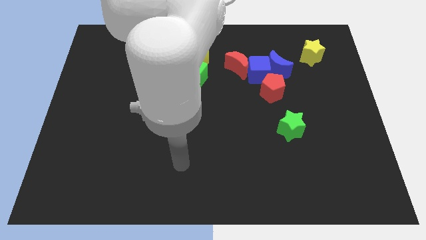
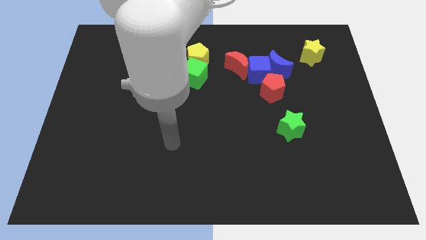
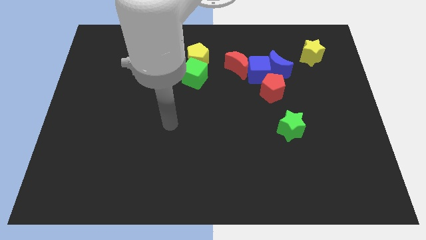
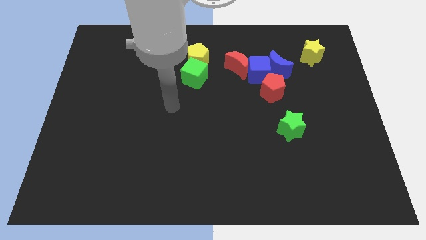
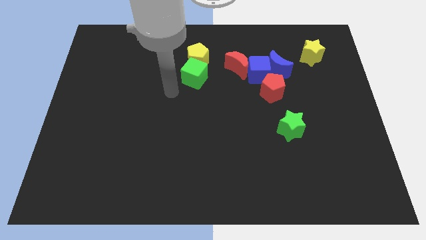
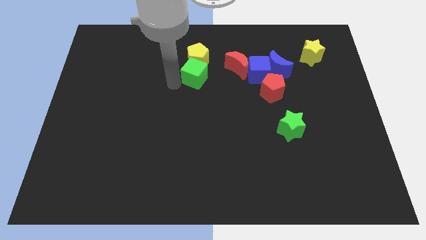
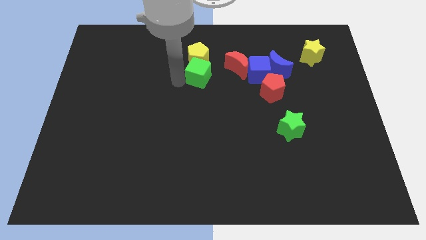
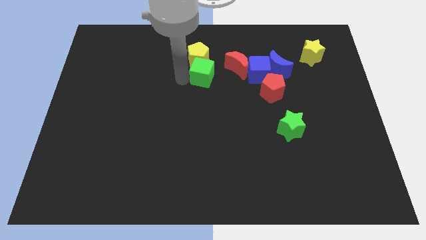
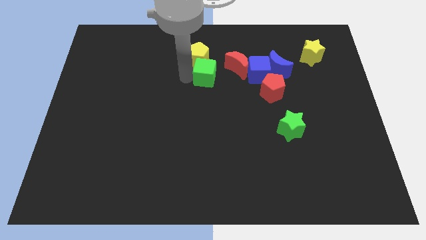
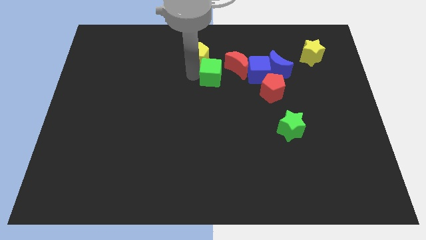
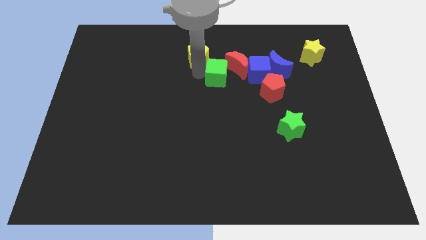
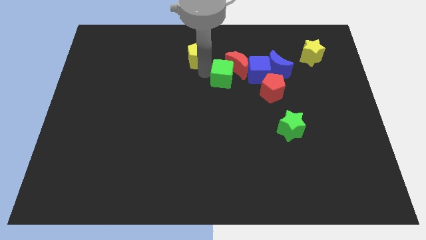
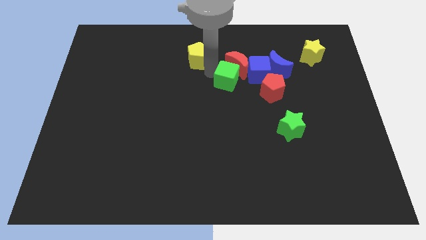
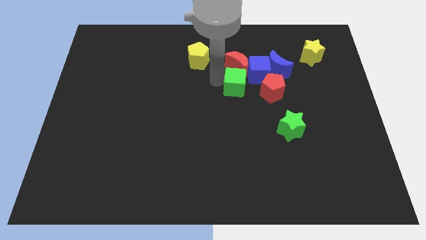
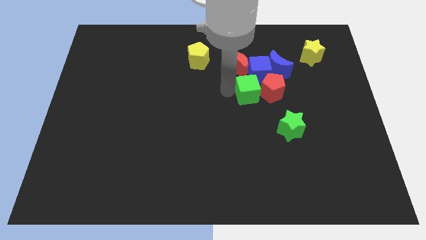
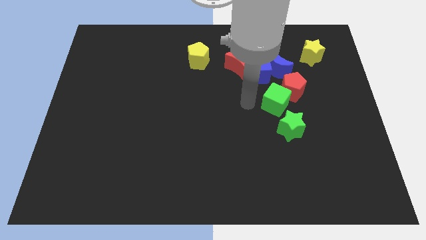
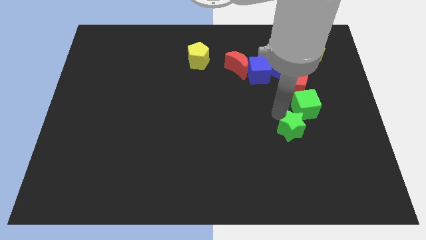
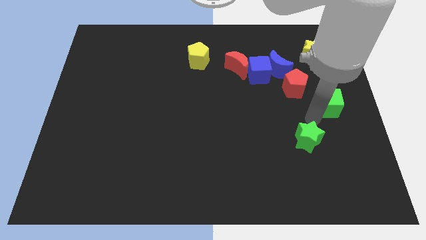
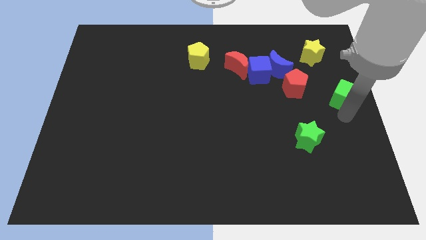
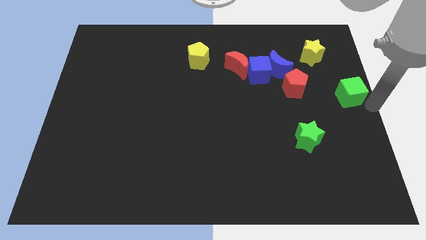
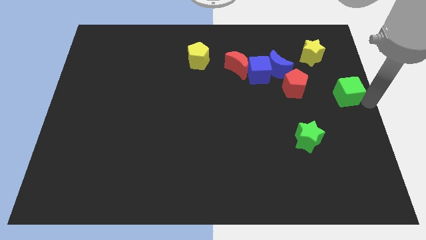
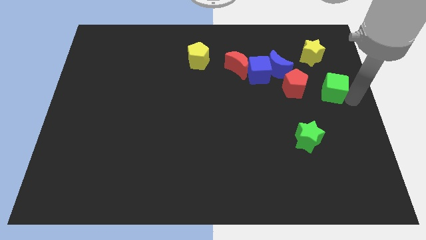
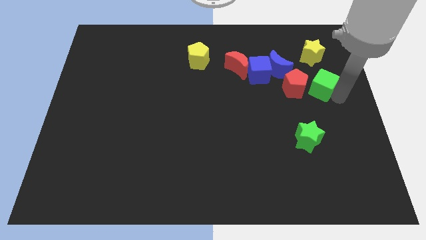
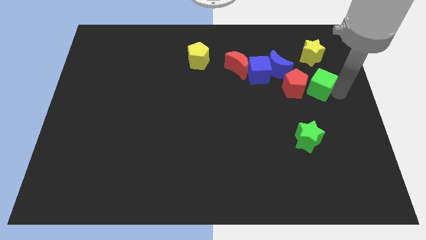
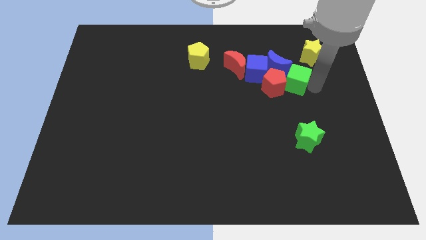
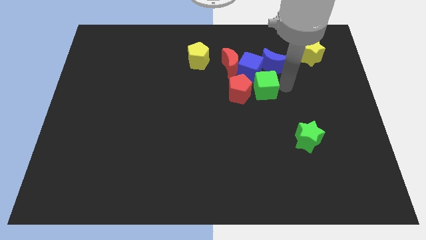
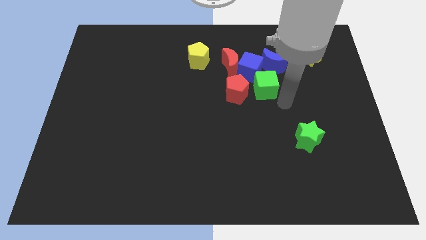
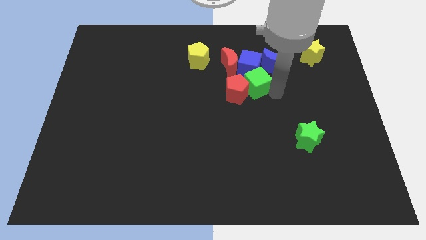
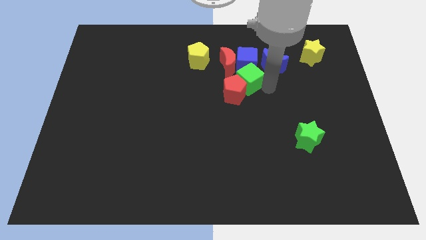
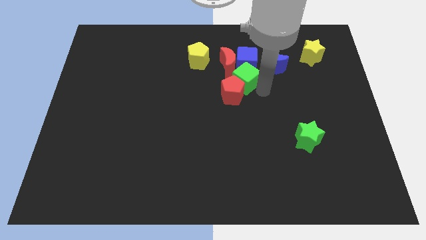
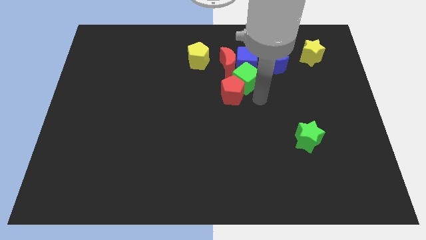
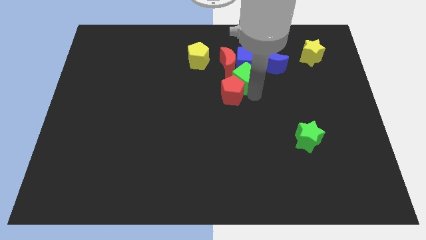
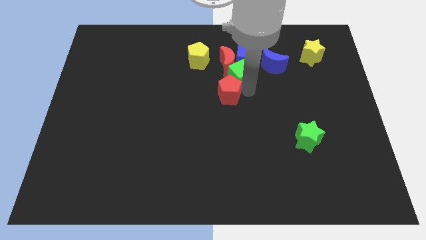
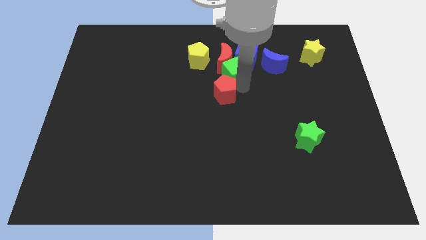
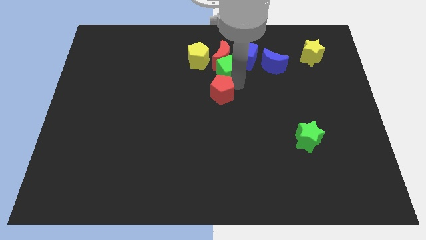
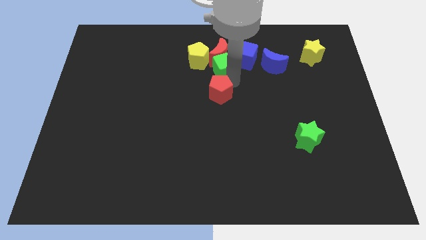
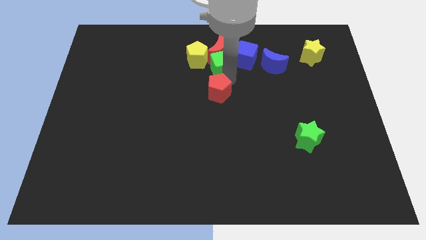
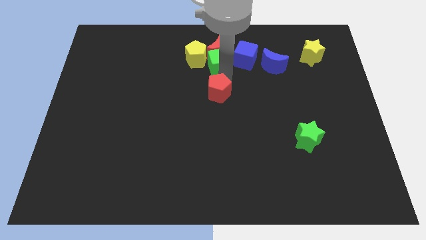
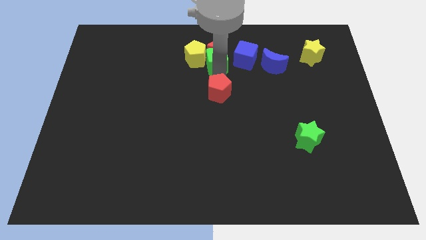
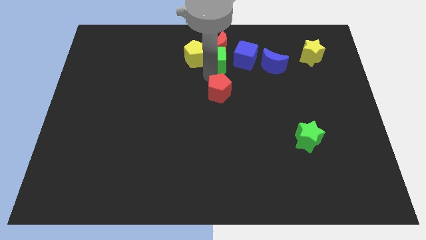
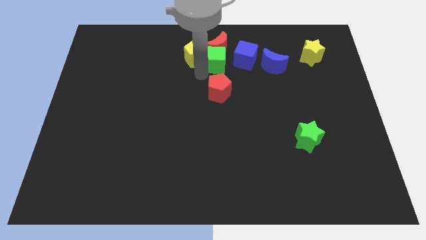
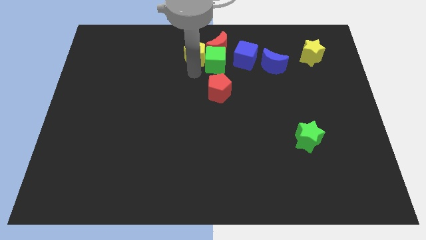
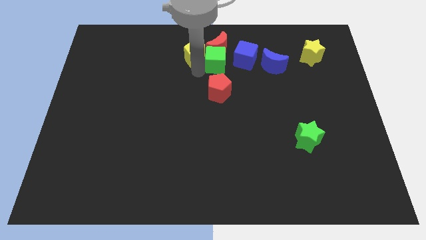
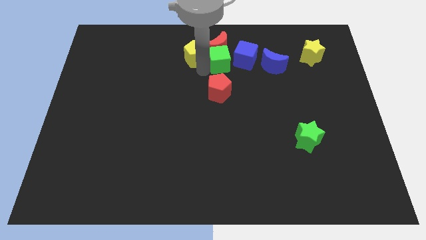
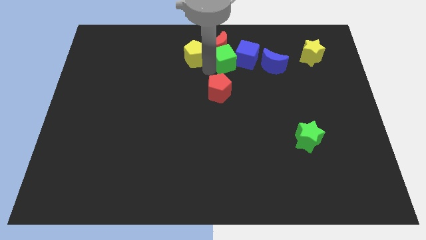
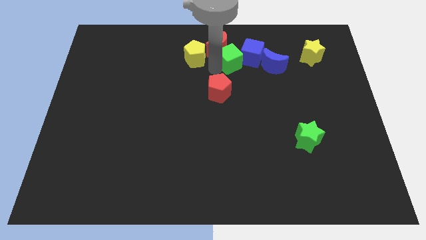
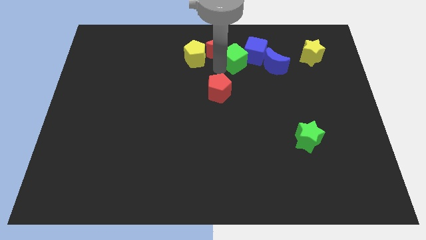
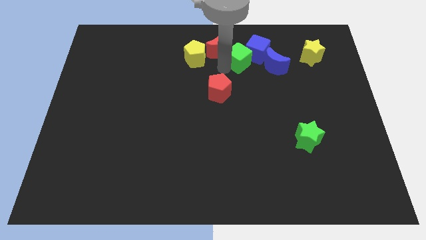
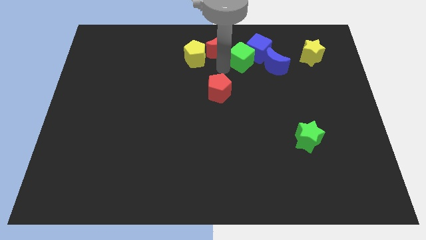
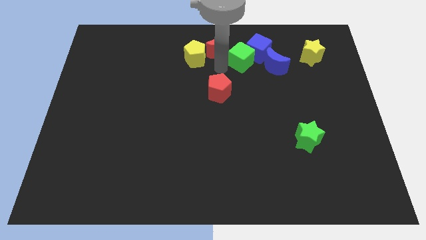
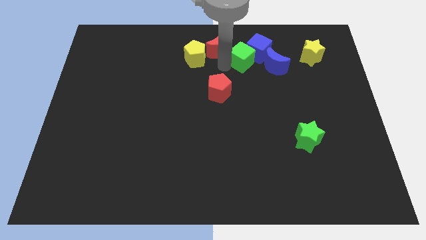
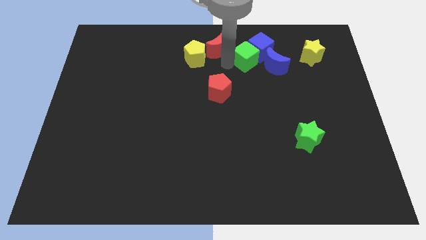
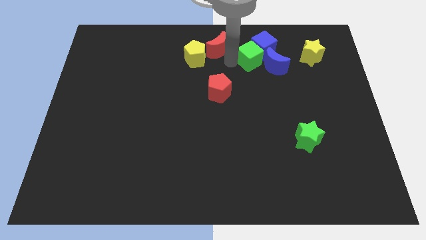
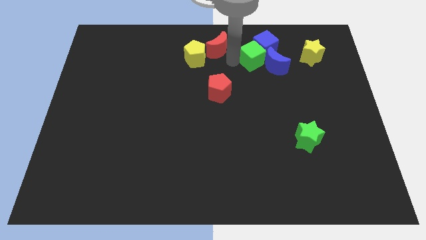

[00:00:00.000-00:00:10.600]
move the green cube to the blue moon

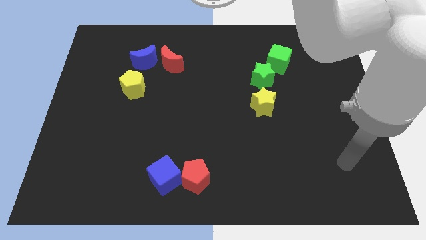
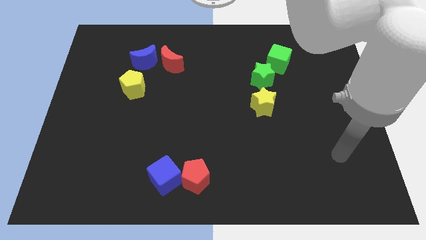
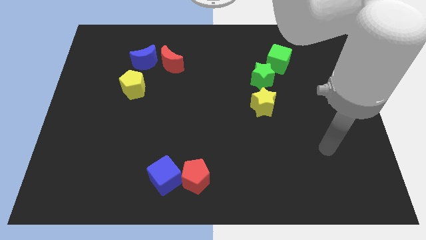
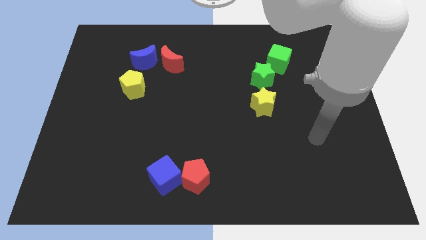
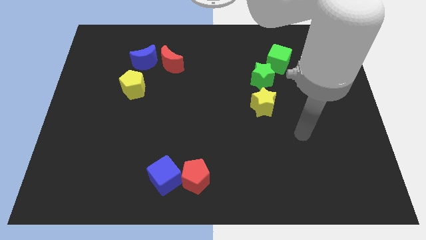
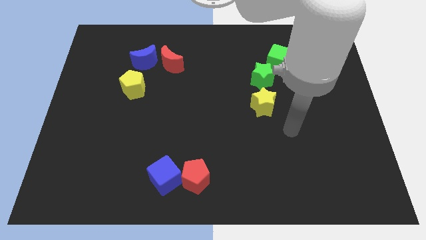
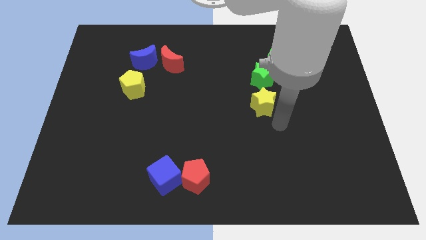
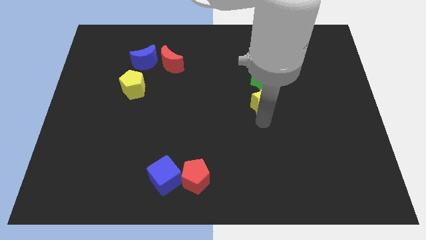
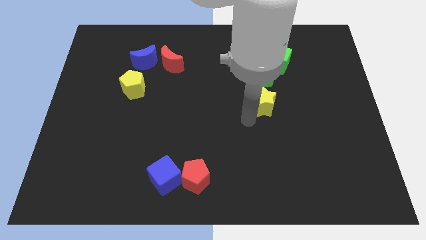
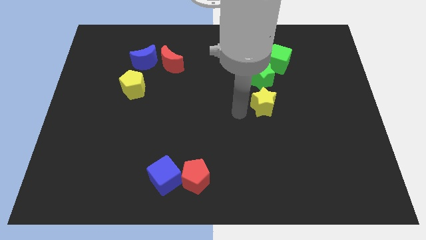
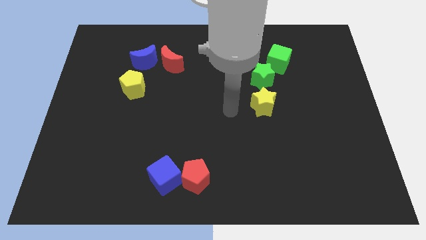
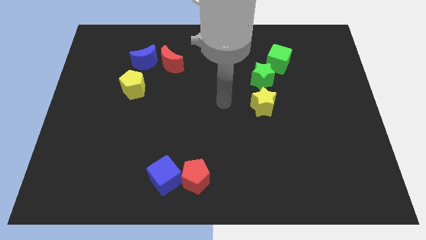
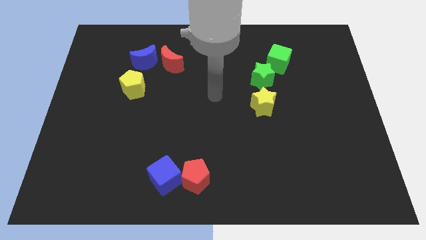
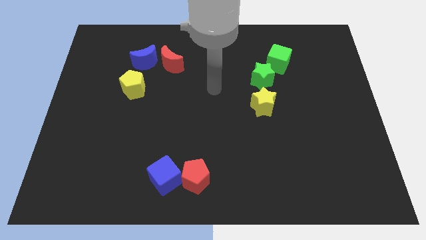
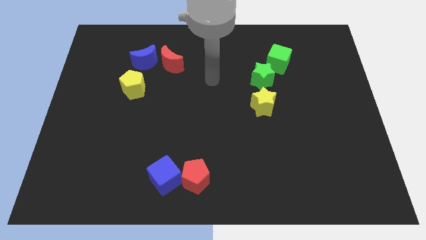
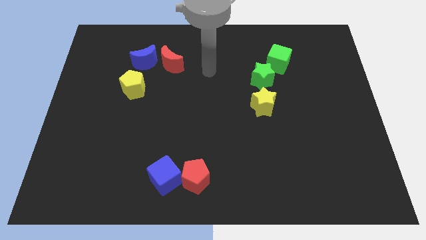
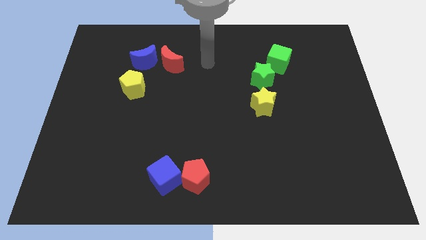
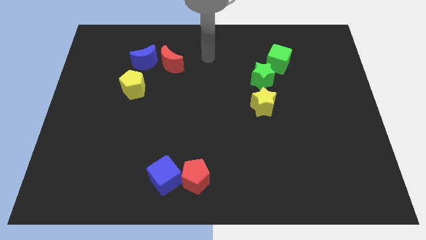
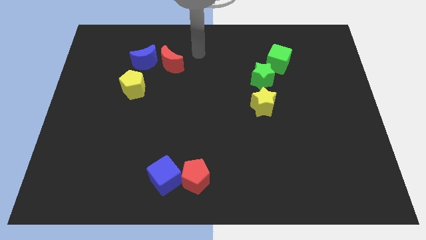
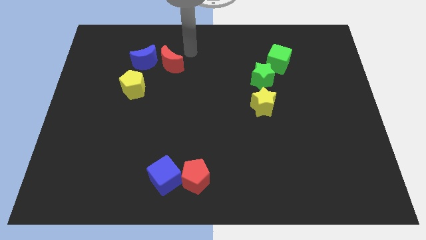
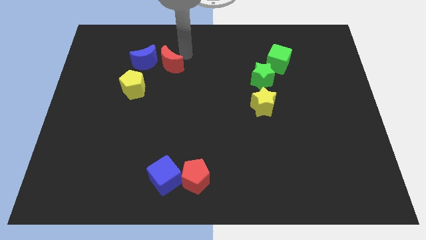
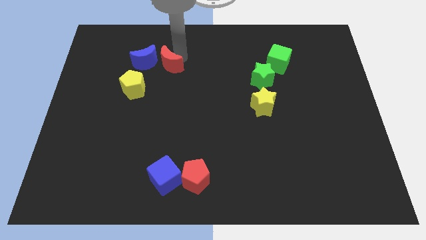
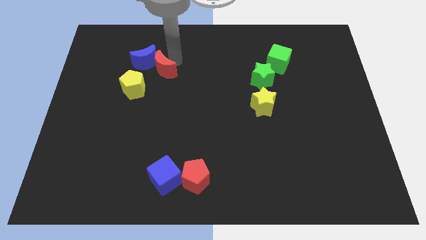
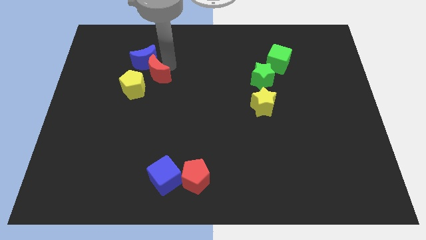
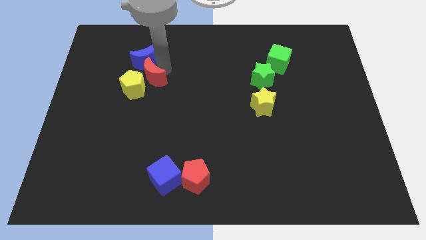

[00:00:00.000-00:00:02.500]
slide the red moon close to the yellow pentagon
